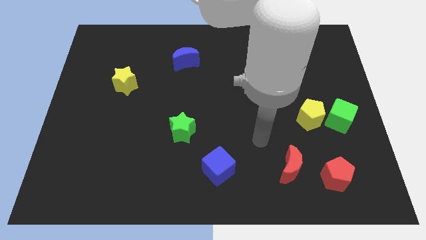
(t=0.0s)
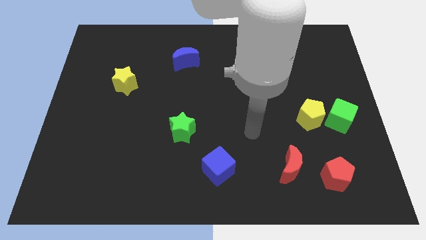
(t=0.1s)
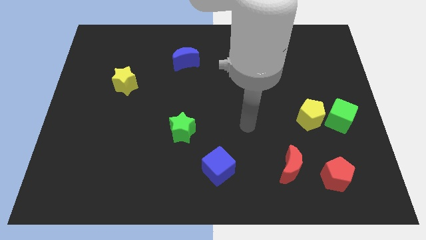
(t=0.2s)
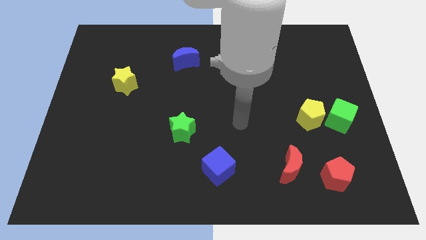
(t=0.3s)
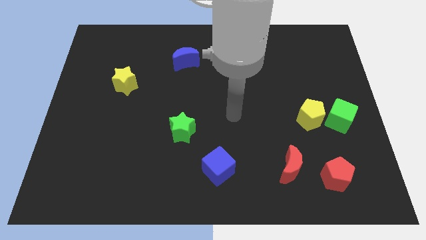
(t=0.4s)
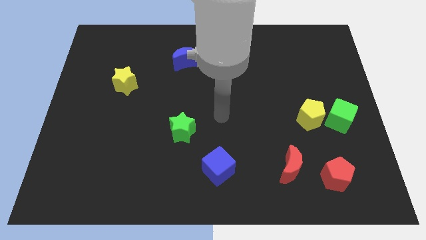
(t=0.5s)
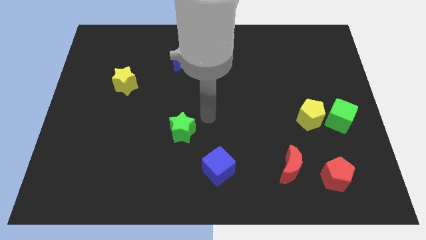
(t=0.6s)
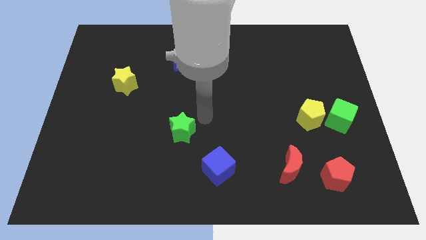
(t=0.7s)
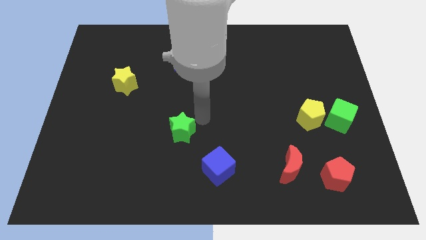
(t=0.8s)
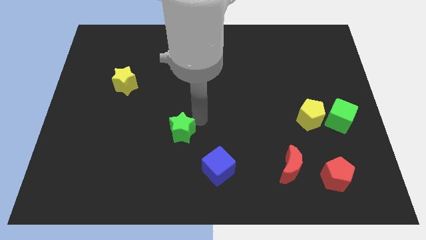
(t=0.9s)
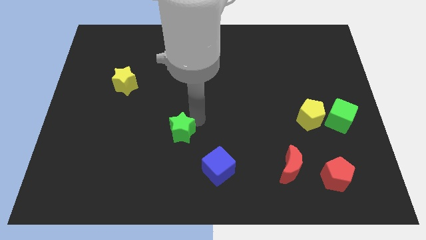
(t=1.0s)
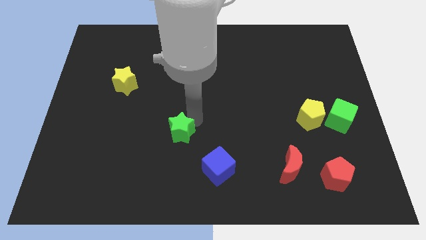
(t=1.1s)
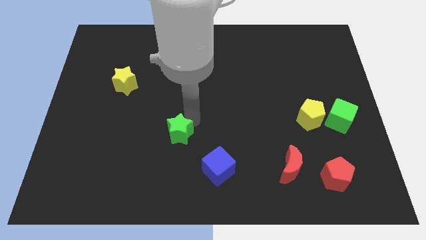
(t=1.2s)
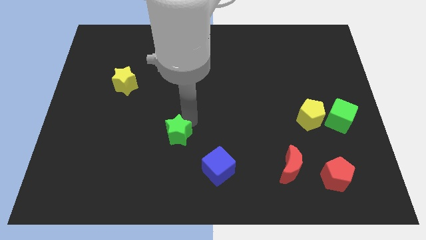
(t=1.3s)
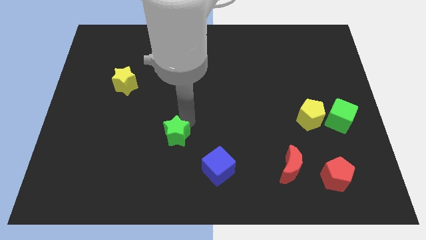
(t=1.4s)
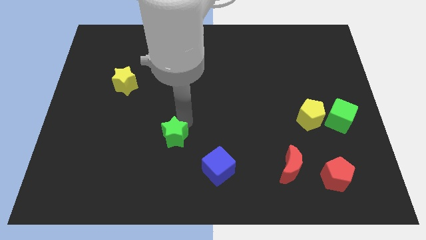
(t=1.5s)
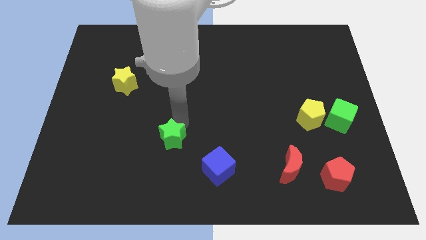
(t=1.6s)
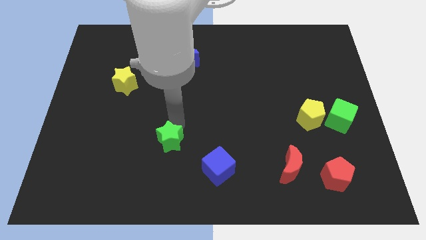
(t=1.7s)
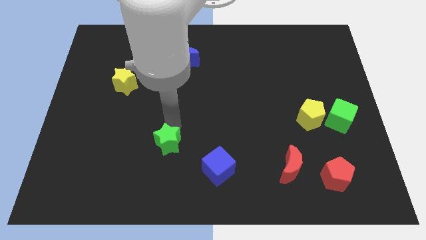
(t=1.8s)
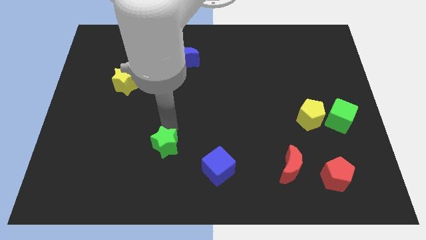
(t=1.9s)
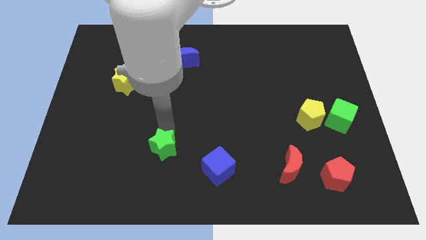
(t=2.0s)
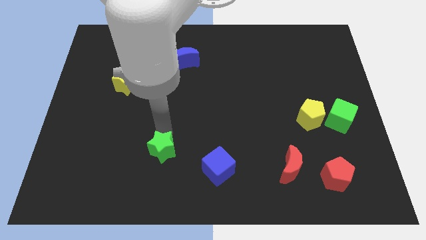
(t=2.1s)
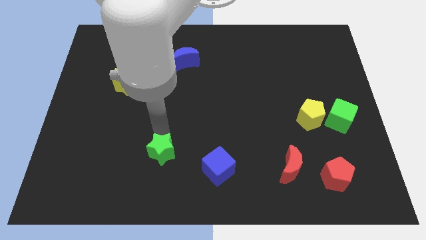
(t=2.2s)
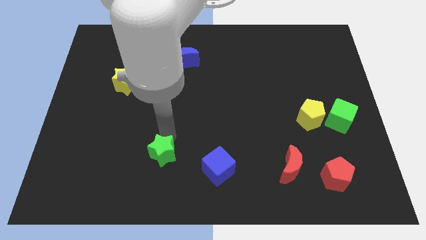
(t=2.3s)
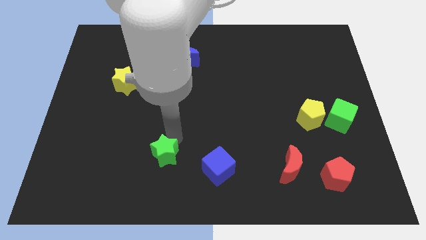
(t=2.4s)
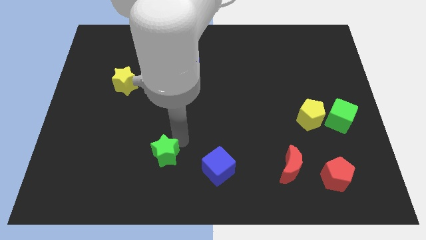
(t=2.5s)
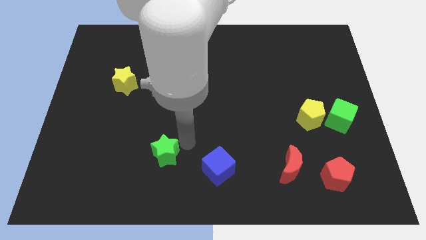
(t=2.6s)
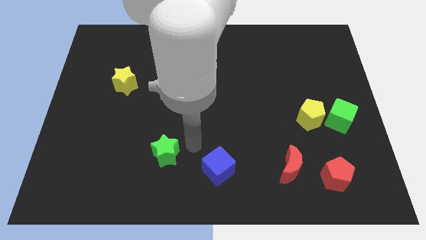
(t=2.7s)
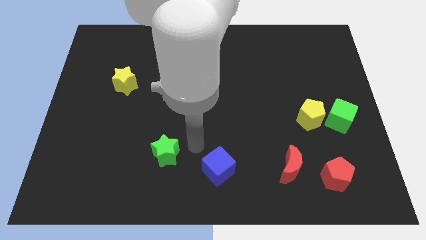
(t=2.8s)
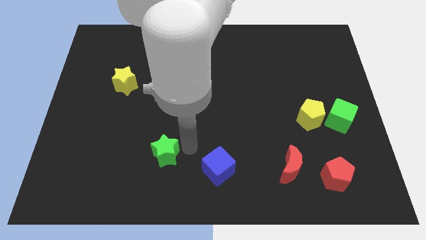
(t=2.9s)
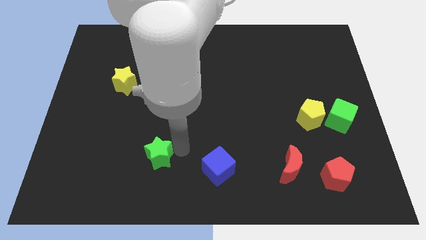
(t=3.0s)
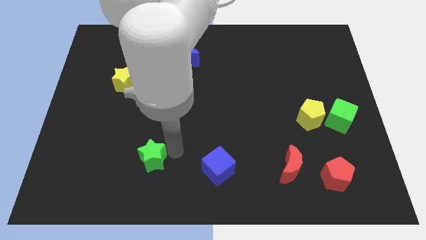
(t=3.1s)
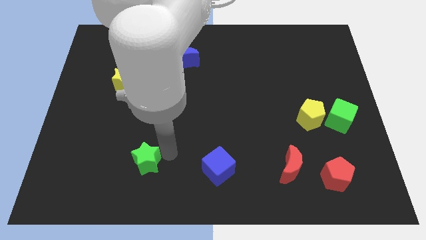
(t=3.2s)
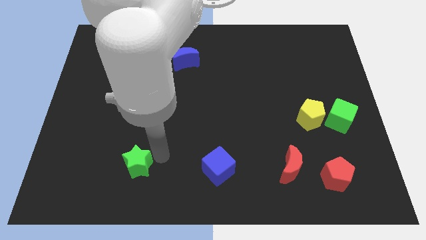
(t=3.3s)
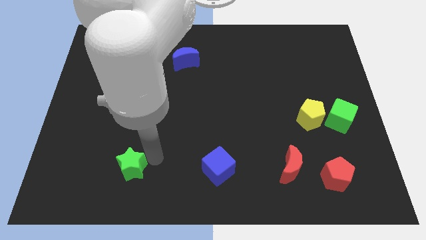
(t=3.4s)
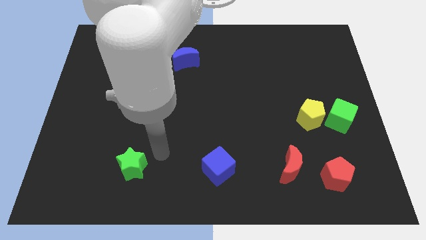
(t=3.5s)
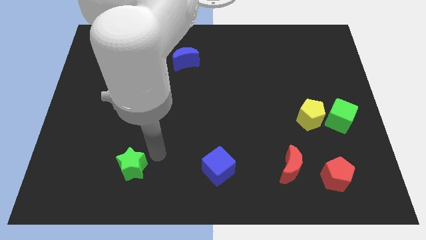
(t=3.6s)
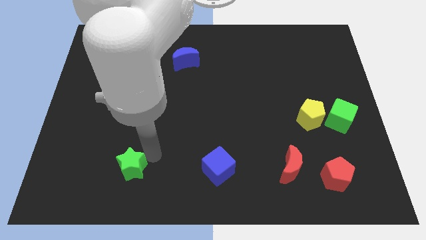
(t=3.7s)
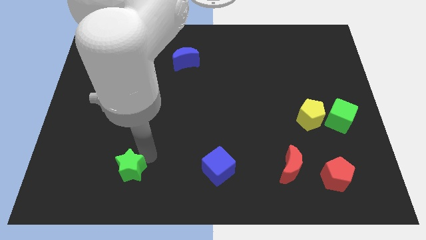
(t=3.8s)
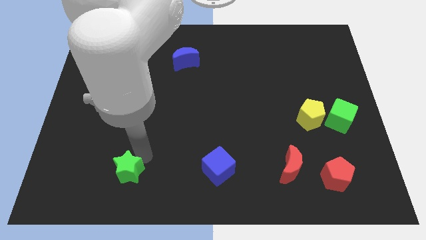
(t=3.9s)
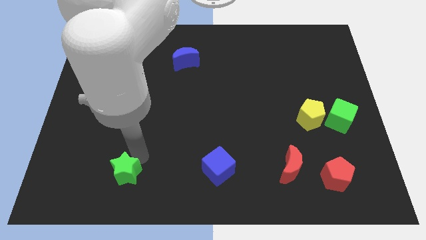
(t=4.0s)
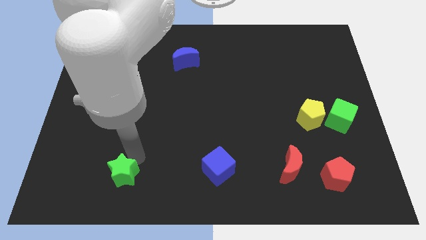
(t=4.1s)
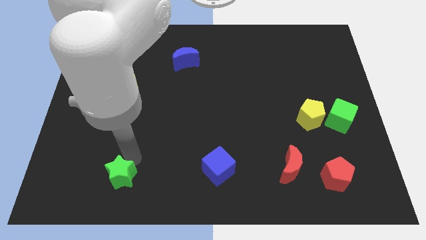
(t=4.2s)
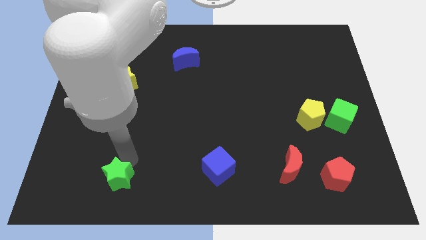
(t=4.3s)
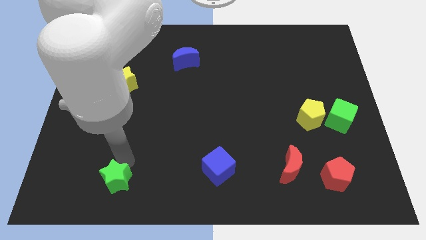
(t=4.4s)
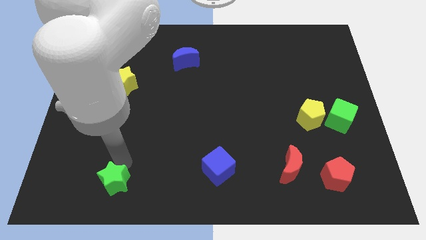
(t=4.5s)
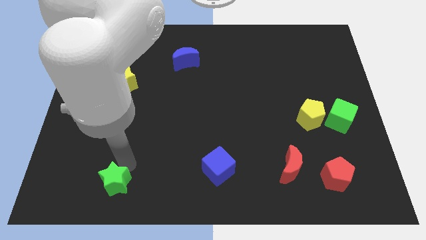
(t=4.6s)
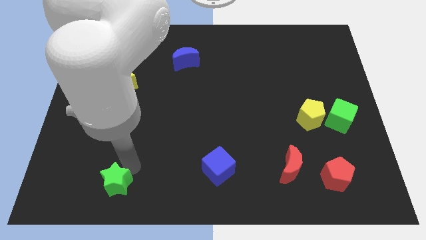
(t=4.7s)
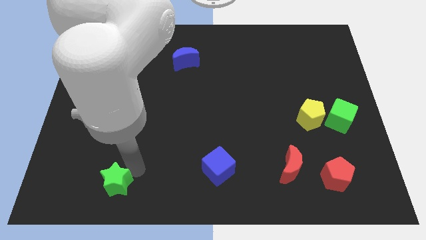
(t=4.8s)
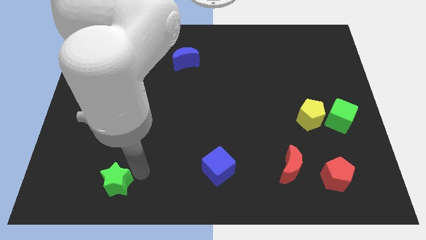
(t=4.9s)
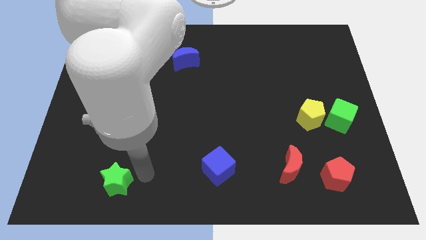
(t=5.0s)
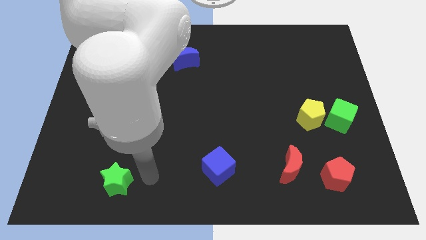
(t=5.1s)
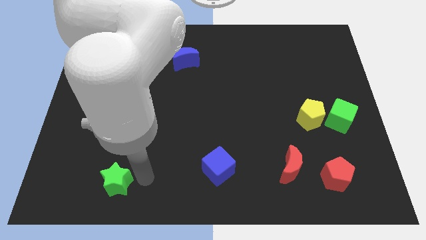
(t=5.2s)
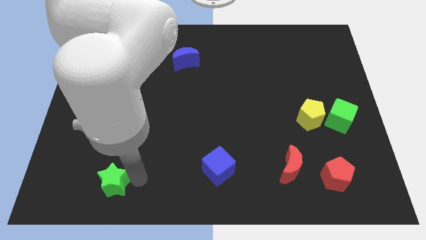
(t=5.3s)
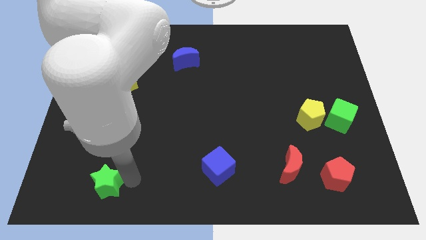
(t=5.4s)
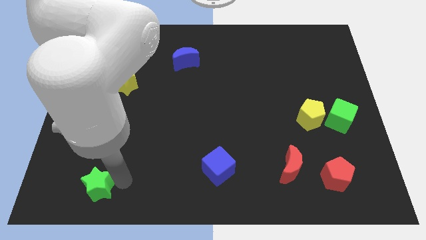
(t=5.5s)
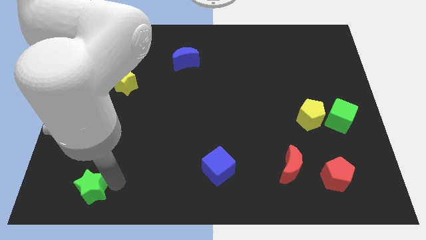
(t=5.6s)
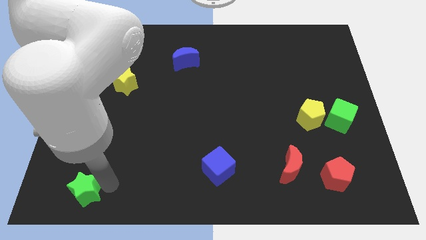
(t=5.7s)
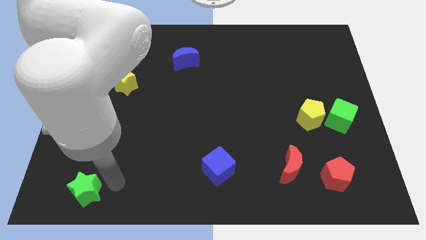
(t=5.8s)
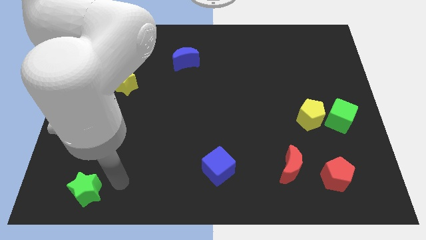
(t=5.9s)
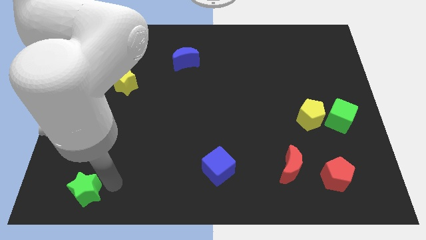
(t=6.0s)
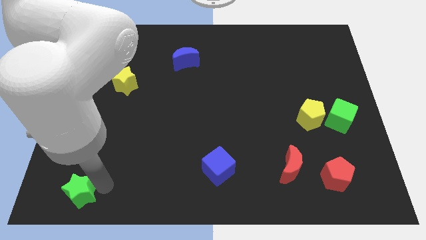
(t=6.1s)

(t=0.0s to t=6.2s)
push the green star to the bottom left
